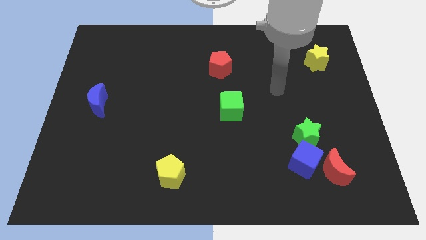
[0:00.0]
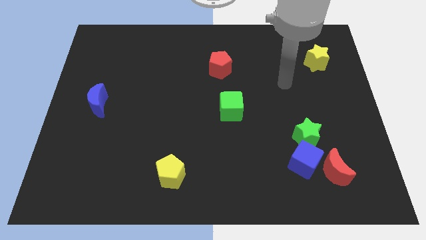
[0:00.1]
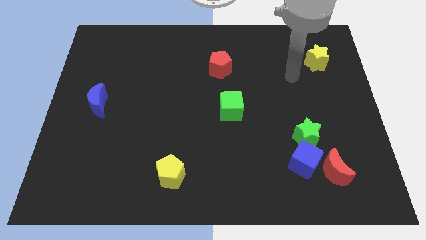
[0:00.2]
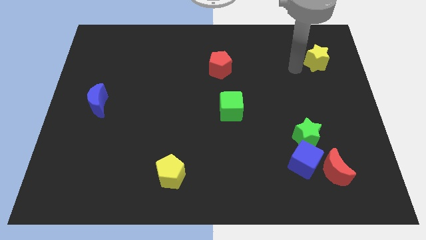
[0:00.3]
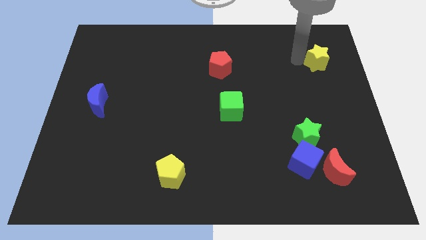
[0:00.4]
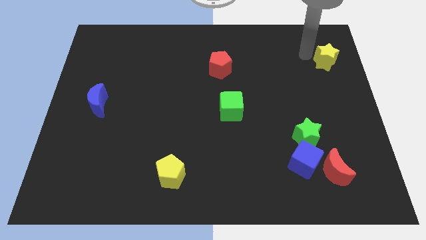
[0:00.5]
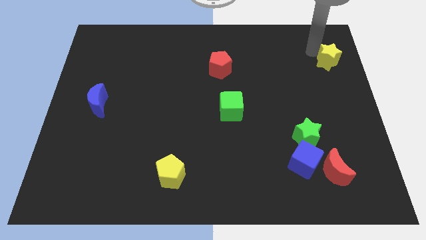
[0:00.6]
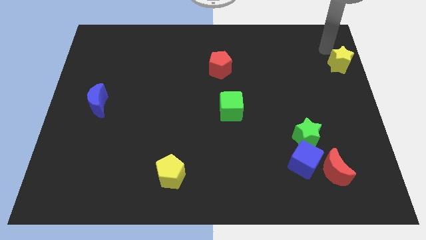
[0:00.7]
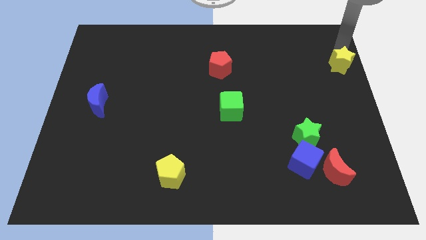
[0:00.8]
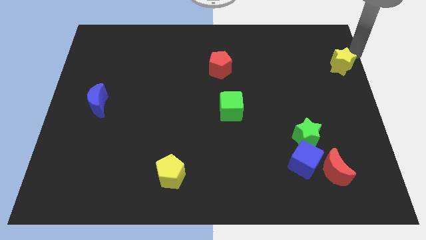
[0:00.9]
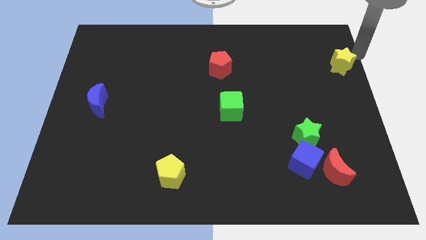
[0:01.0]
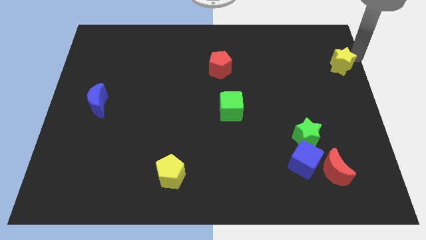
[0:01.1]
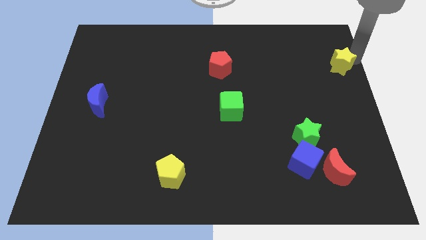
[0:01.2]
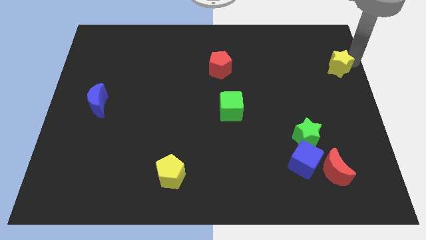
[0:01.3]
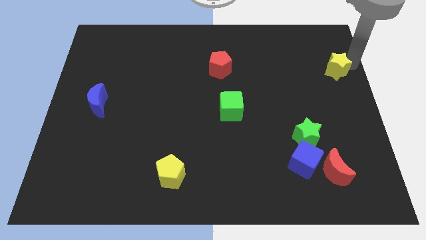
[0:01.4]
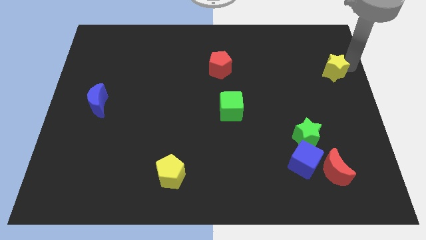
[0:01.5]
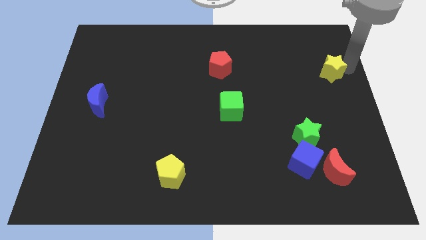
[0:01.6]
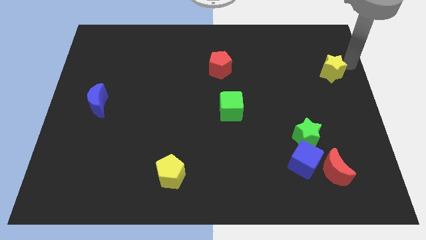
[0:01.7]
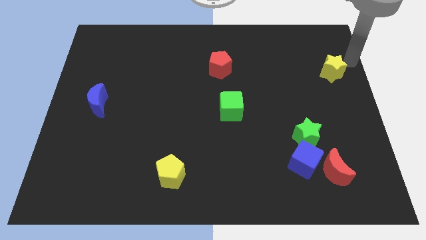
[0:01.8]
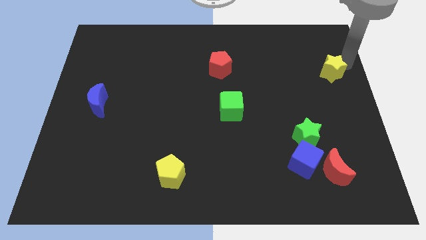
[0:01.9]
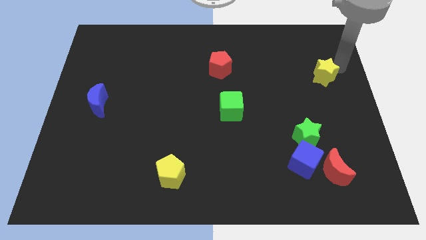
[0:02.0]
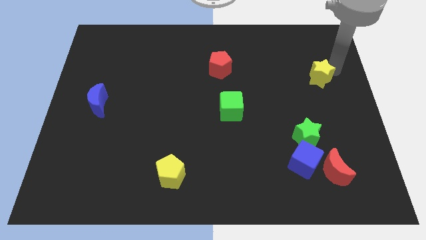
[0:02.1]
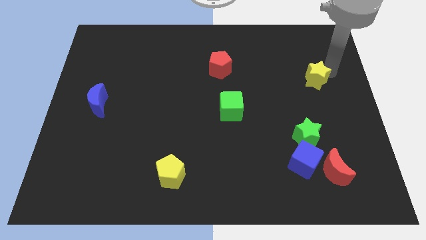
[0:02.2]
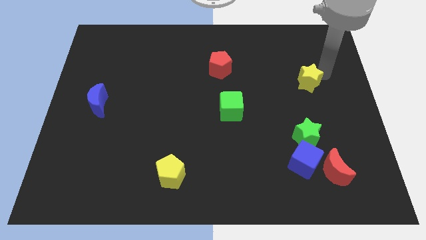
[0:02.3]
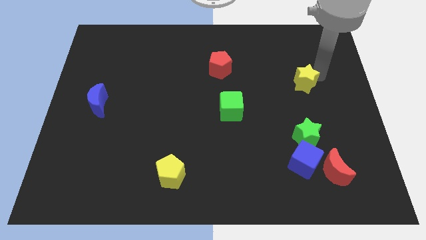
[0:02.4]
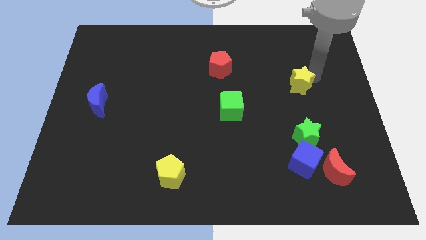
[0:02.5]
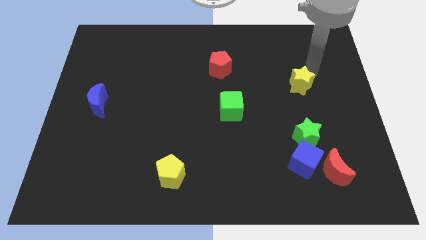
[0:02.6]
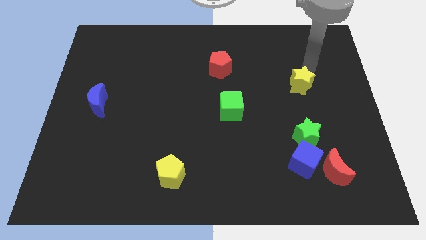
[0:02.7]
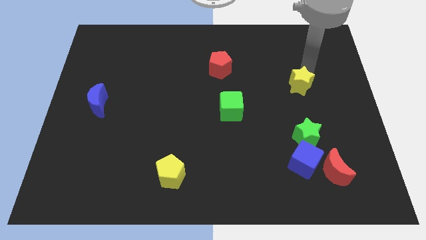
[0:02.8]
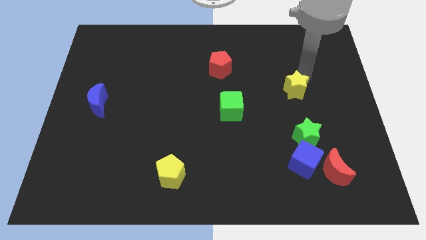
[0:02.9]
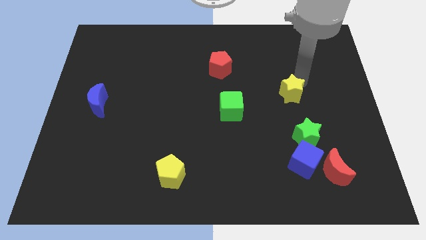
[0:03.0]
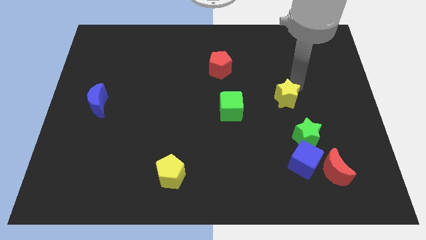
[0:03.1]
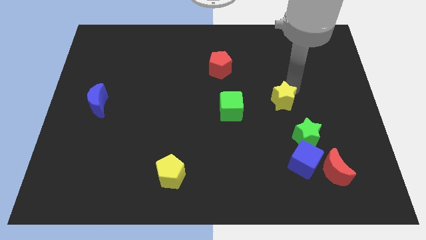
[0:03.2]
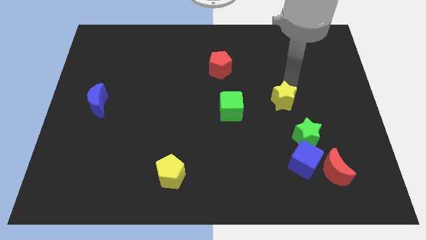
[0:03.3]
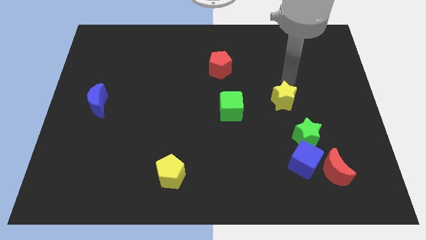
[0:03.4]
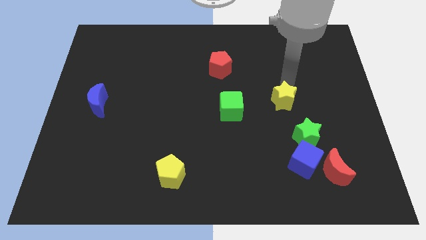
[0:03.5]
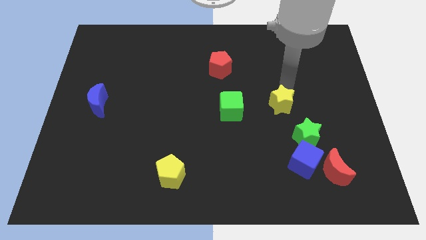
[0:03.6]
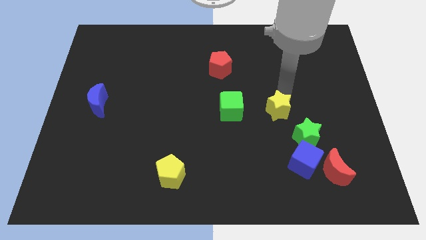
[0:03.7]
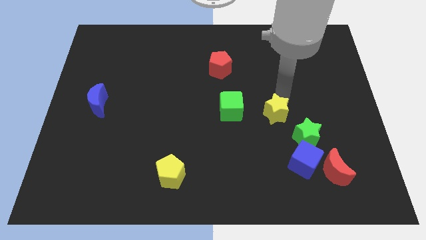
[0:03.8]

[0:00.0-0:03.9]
slide the yellow star down and to the left

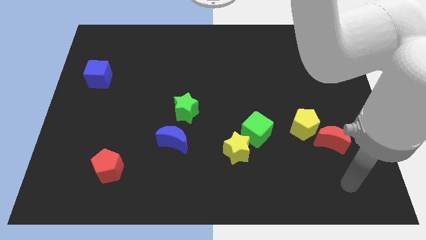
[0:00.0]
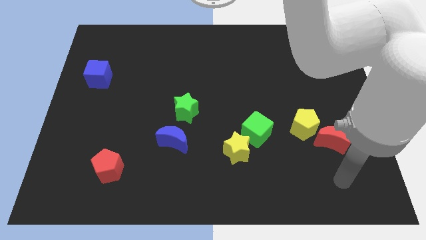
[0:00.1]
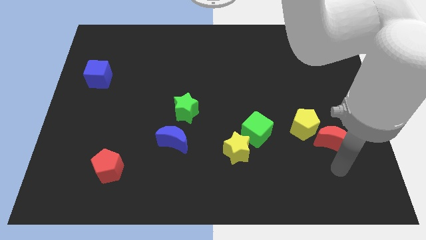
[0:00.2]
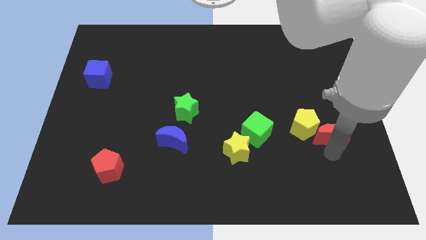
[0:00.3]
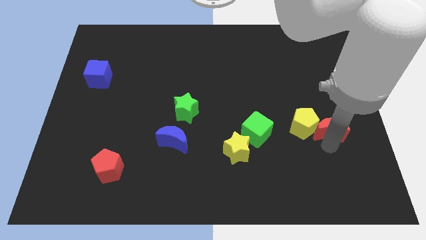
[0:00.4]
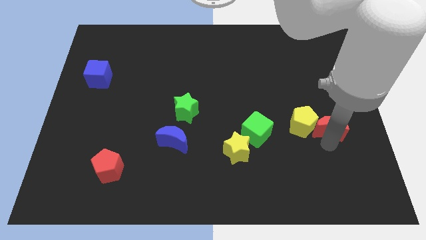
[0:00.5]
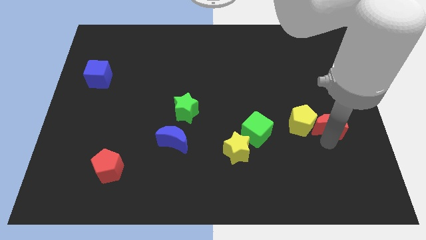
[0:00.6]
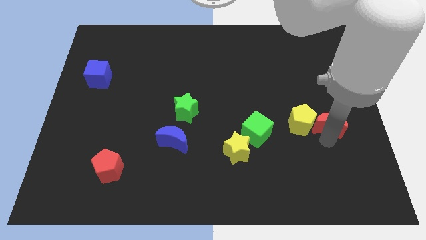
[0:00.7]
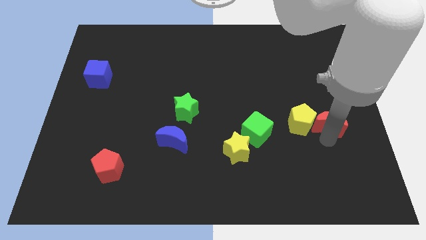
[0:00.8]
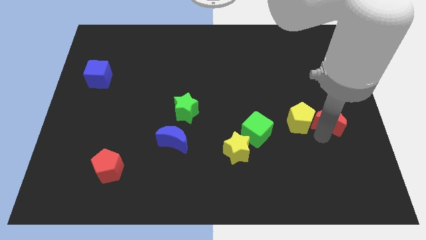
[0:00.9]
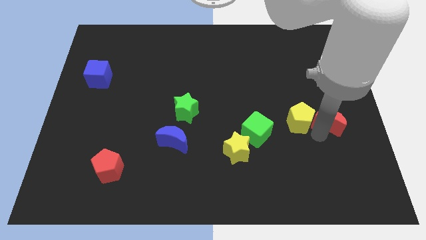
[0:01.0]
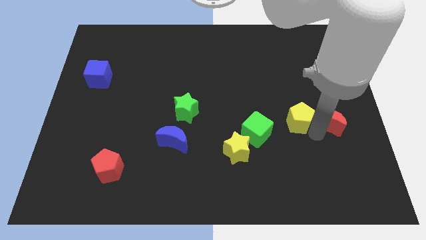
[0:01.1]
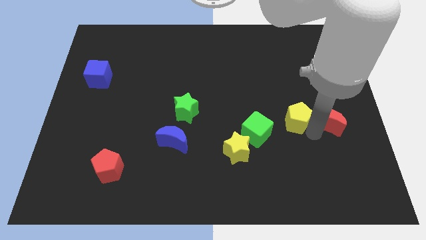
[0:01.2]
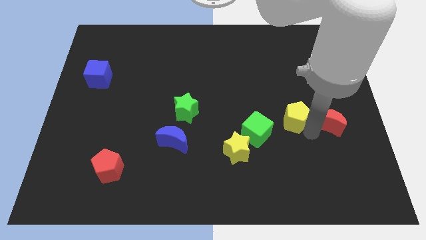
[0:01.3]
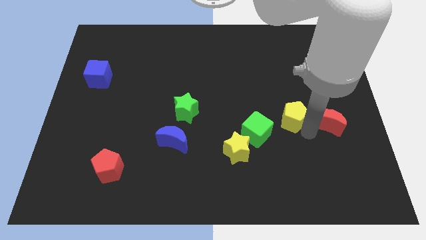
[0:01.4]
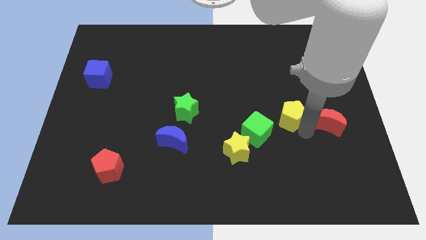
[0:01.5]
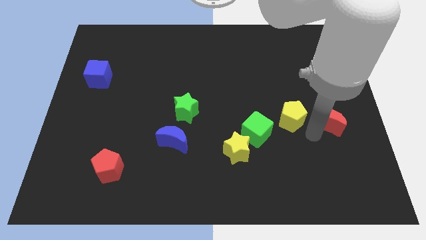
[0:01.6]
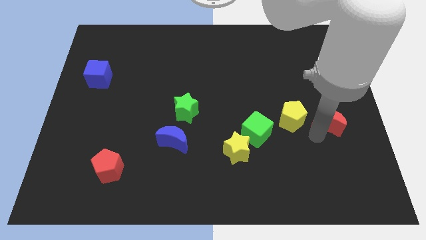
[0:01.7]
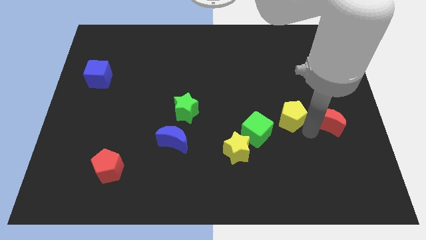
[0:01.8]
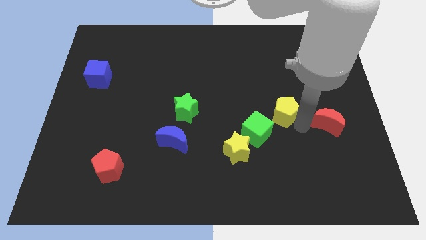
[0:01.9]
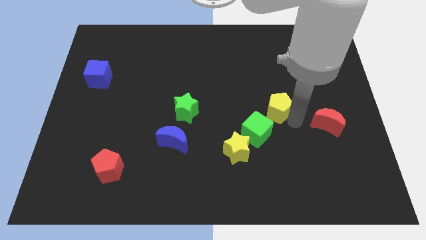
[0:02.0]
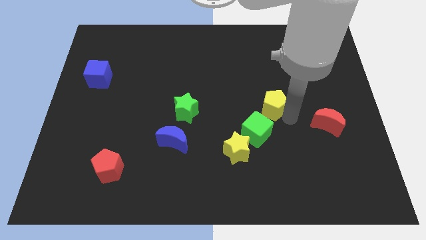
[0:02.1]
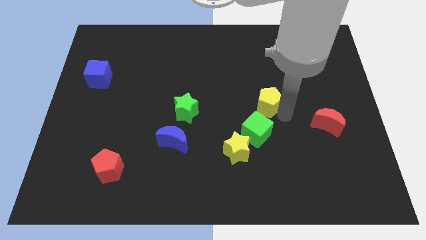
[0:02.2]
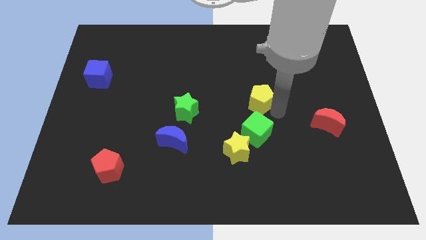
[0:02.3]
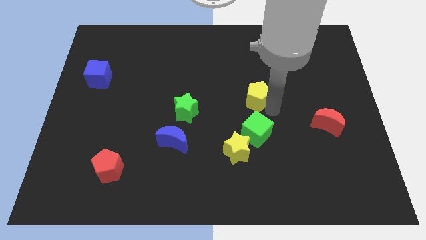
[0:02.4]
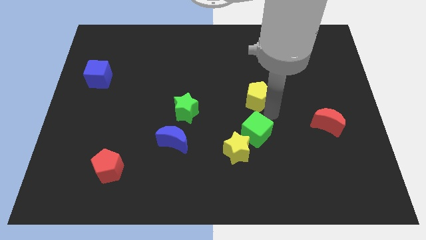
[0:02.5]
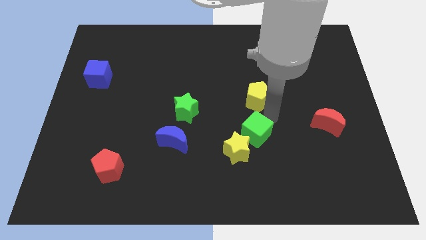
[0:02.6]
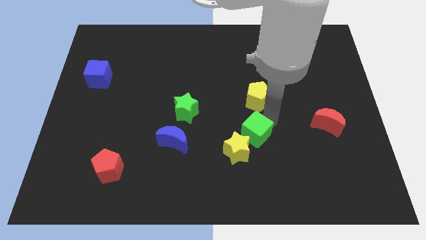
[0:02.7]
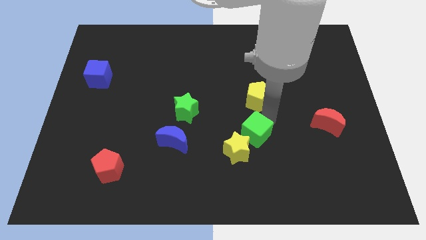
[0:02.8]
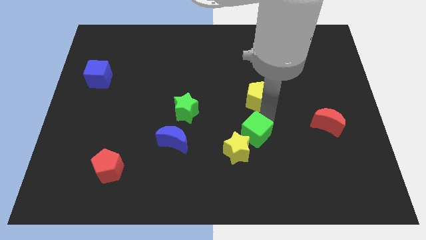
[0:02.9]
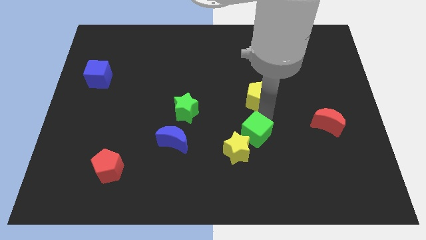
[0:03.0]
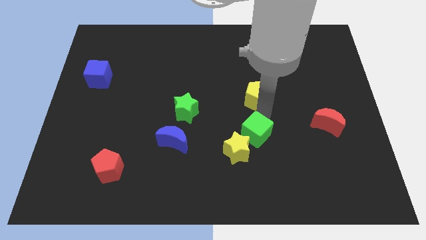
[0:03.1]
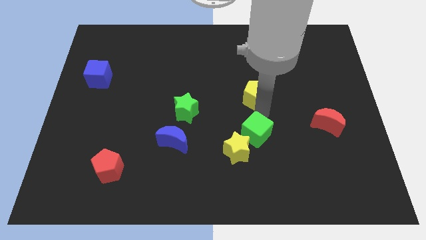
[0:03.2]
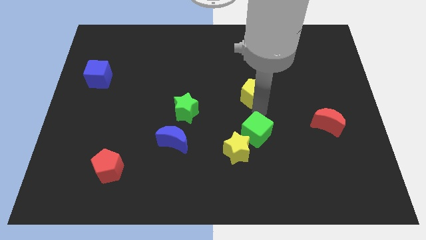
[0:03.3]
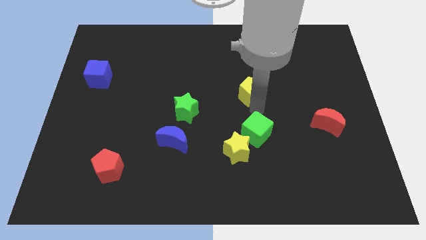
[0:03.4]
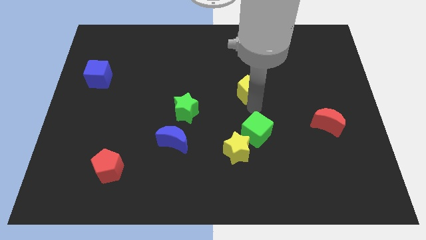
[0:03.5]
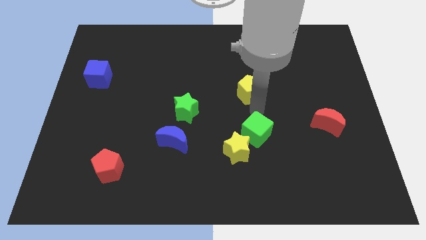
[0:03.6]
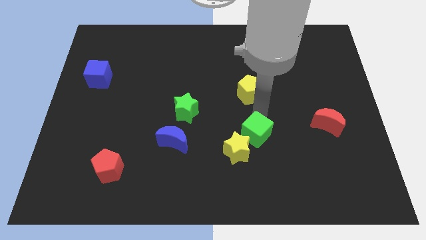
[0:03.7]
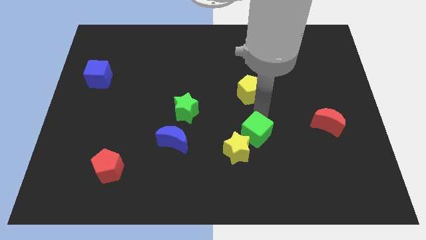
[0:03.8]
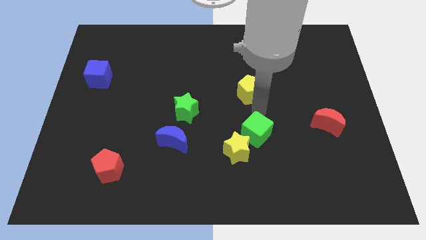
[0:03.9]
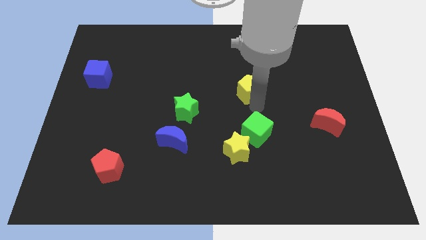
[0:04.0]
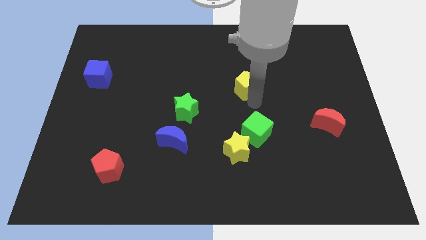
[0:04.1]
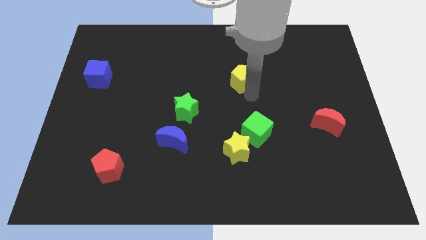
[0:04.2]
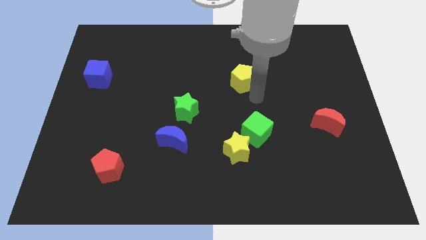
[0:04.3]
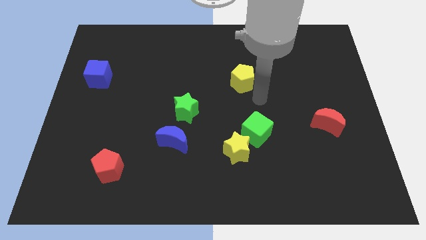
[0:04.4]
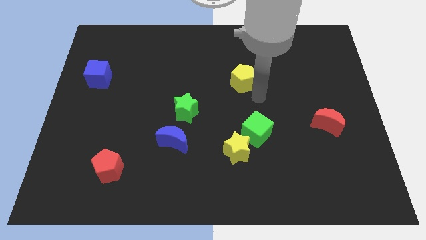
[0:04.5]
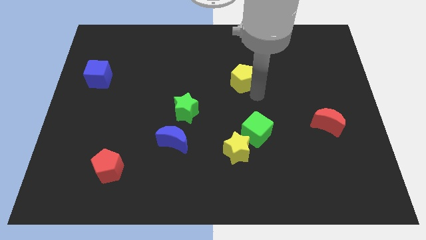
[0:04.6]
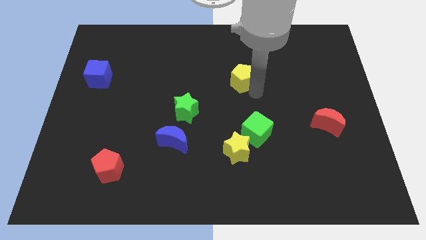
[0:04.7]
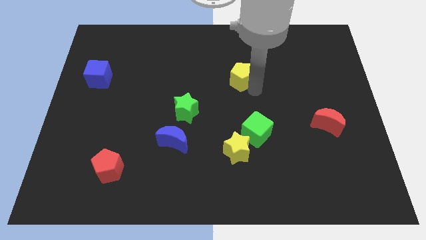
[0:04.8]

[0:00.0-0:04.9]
push the yellow pentagon diagonally upwards and left
